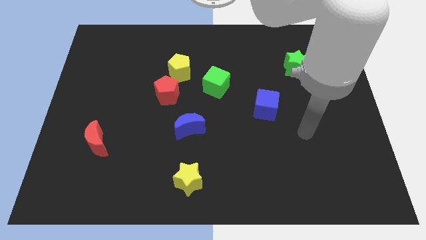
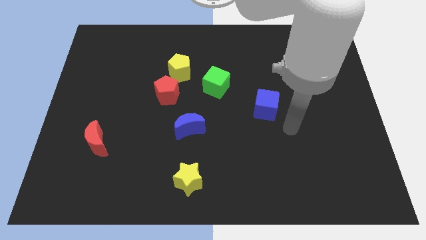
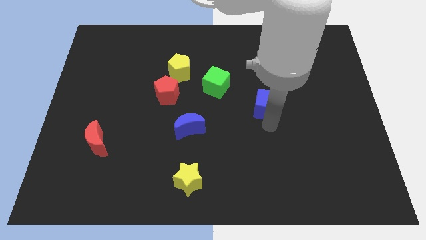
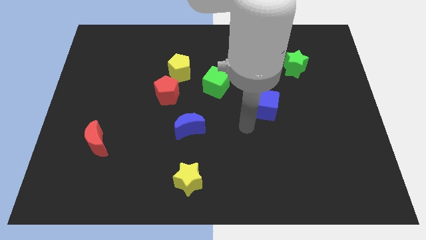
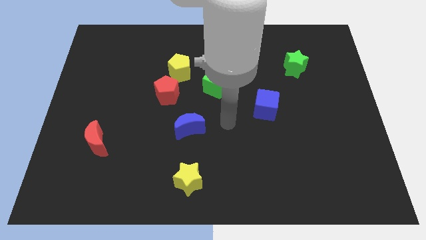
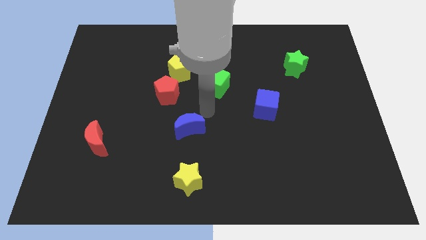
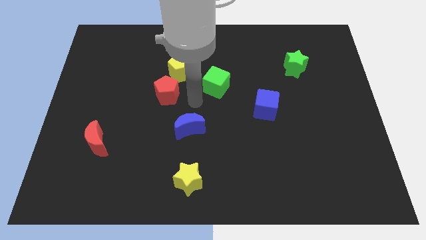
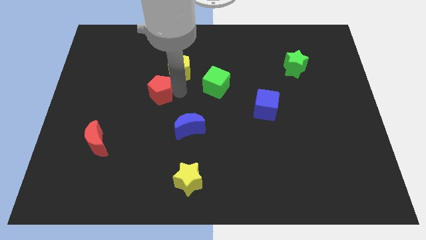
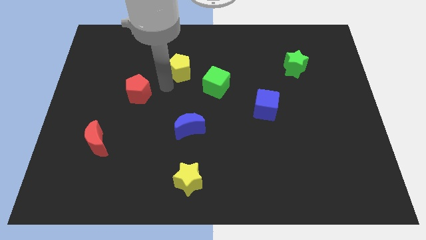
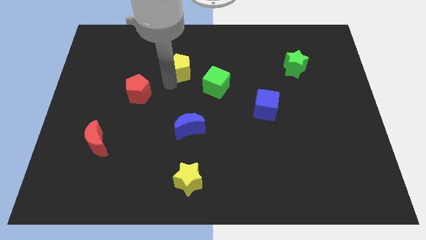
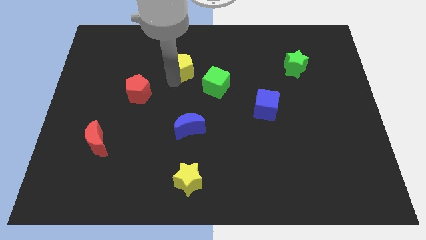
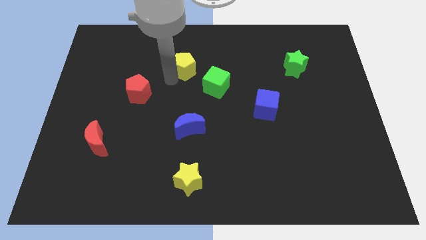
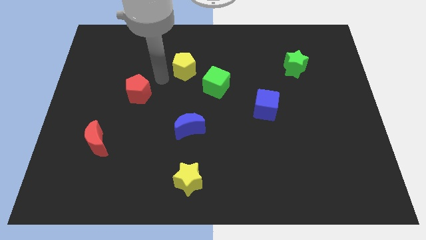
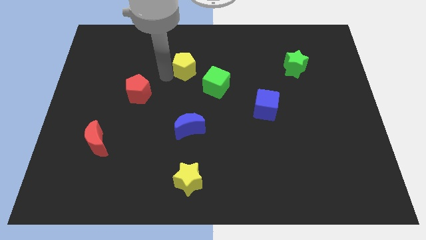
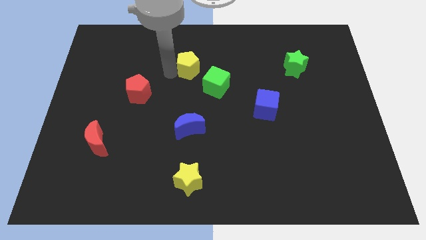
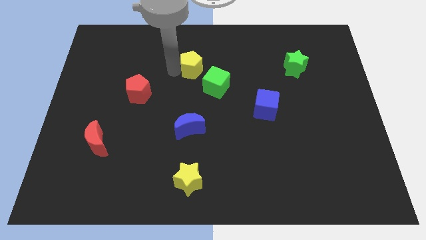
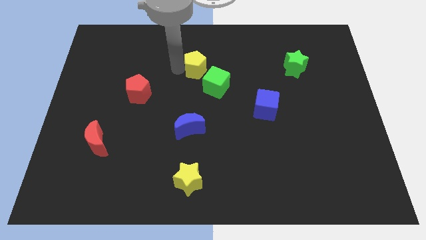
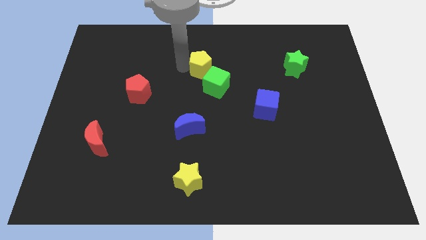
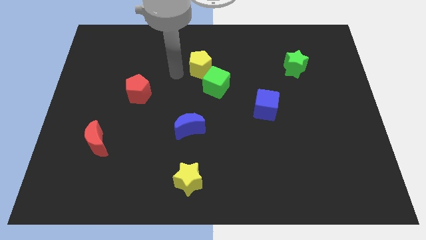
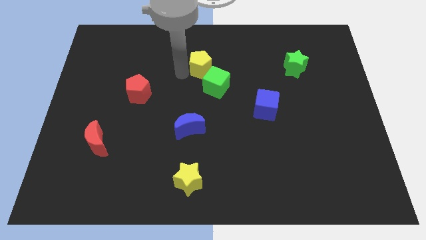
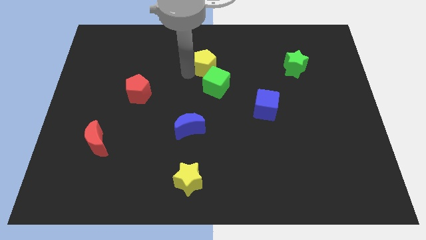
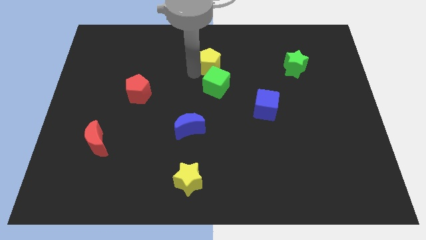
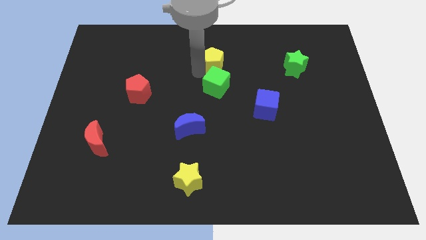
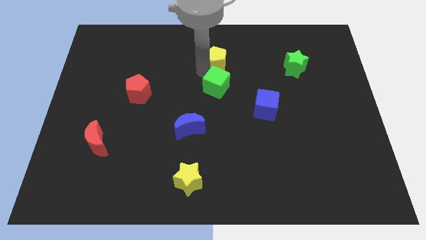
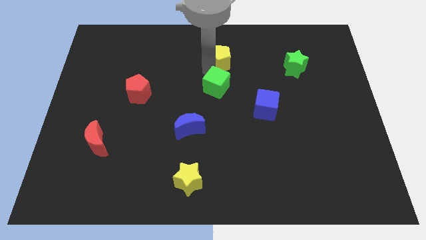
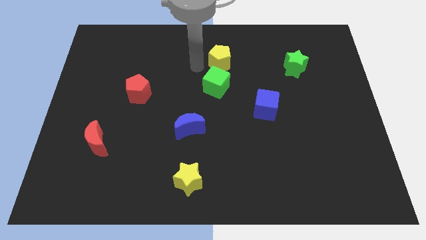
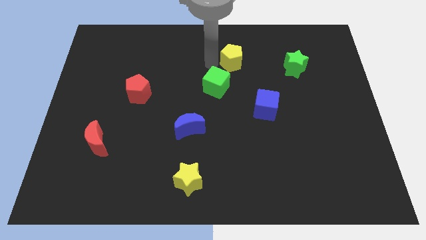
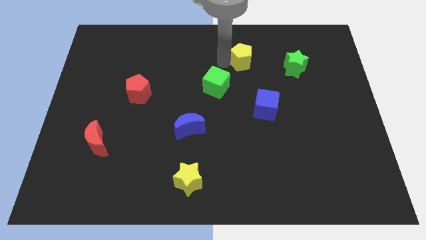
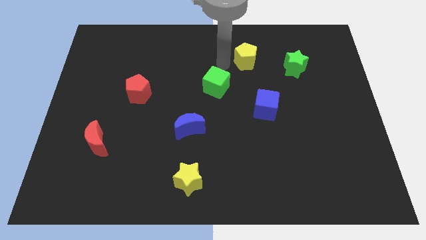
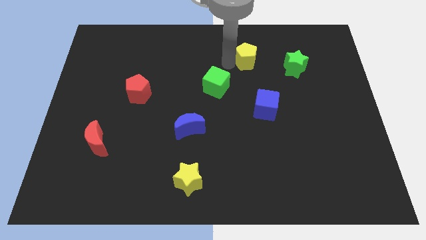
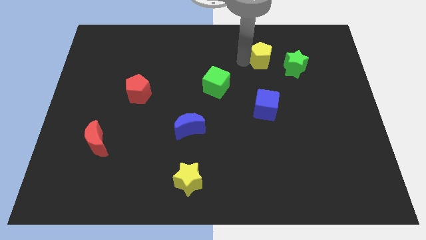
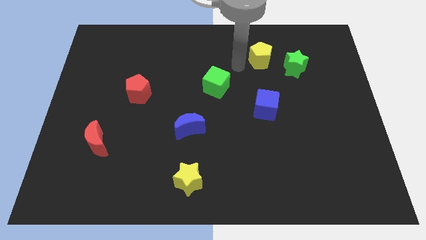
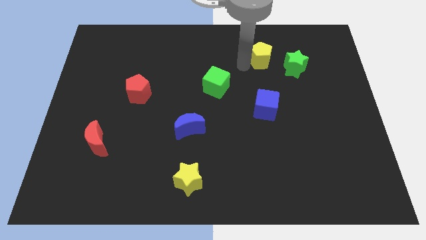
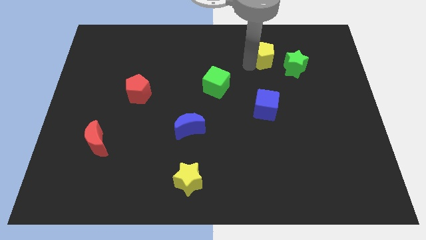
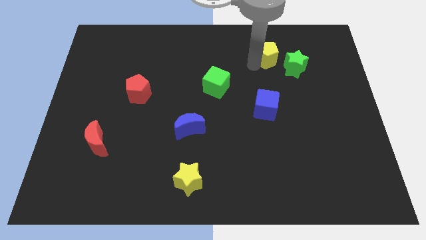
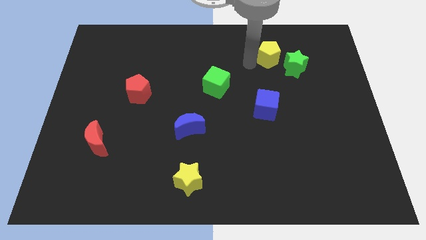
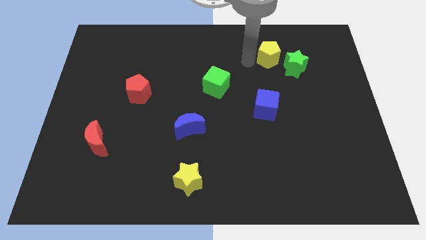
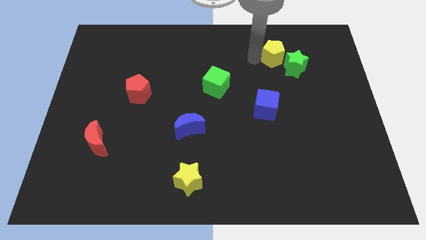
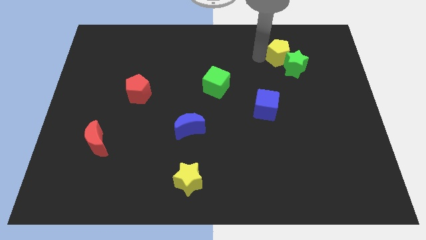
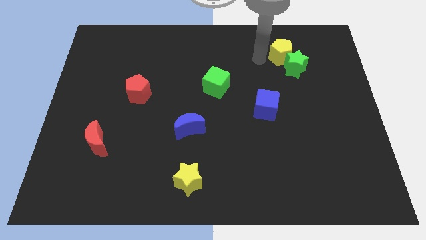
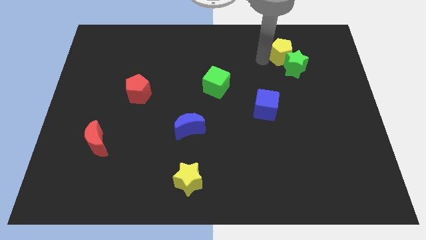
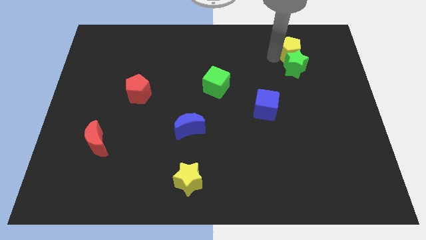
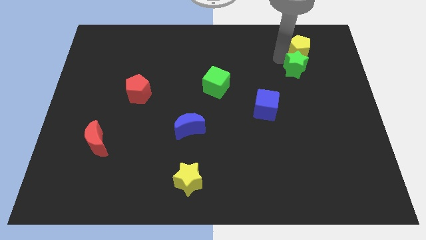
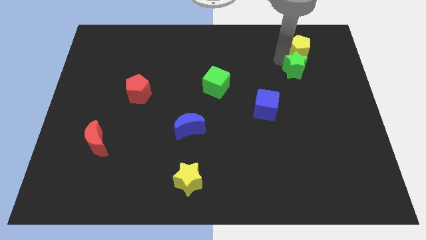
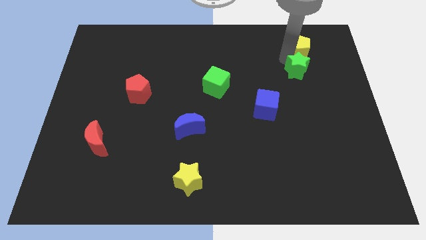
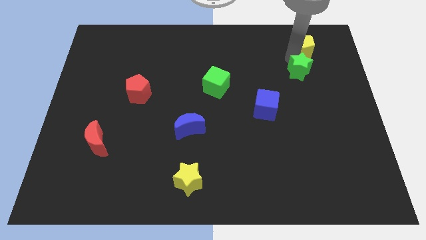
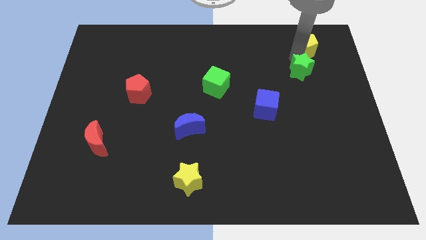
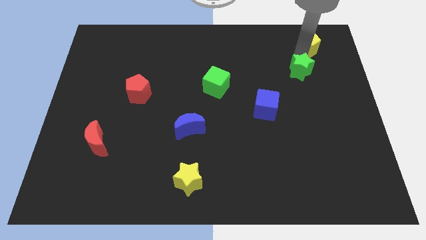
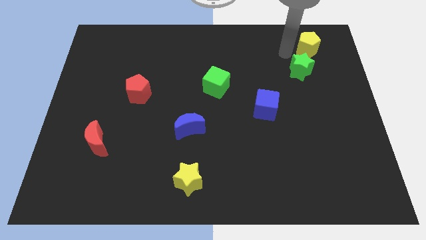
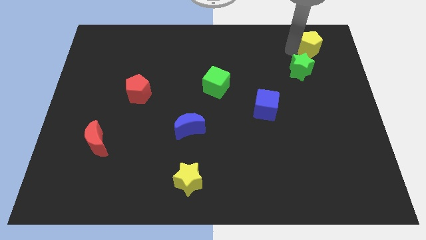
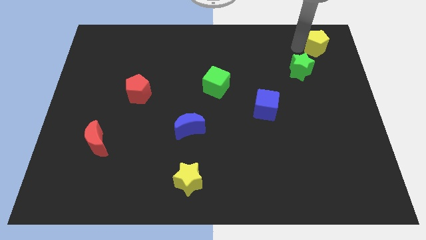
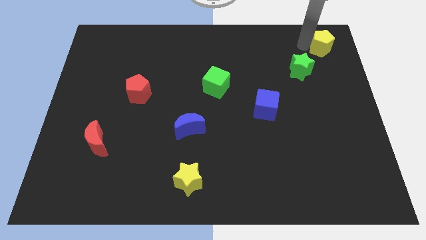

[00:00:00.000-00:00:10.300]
push the yellow pentagon to the upper right corner

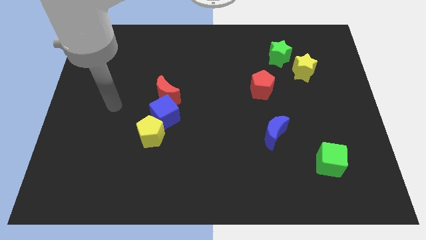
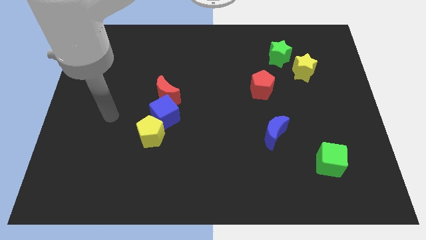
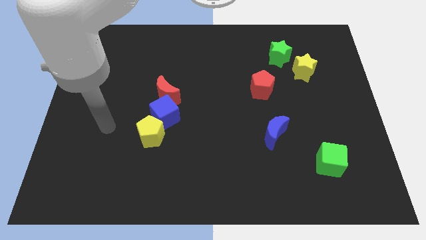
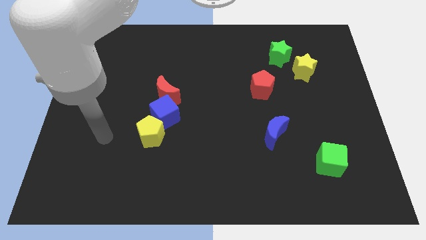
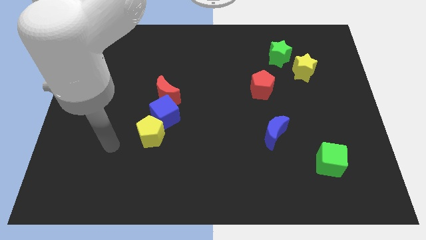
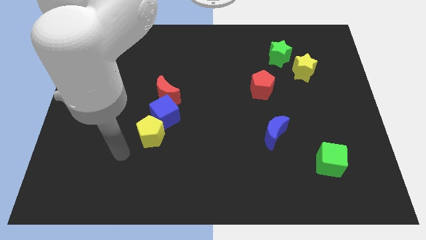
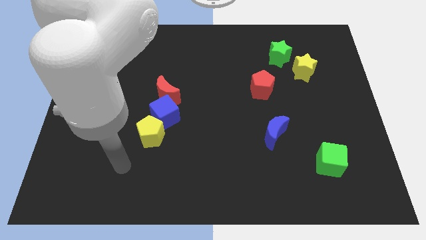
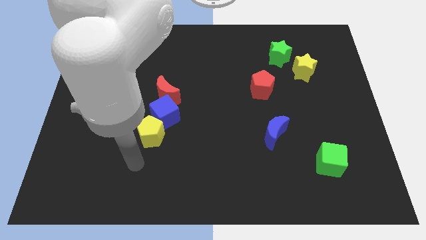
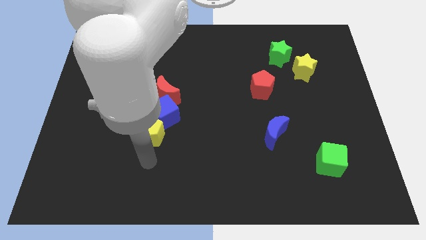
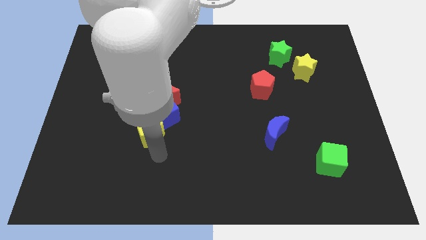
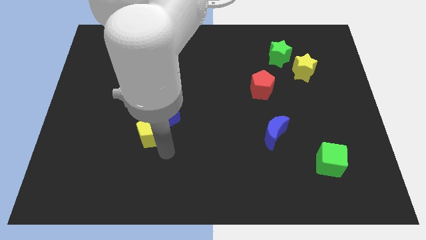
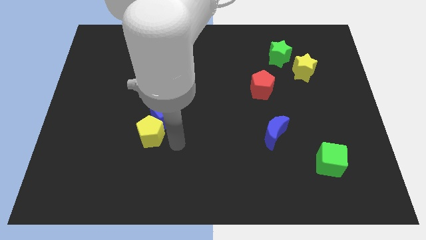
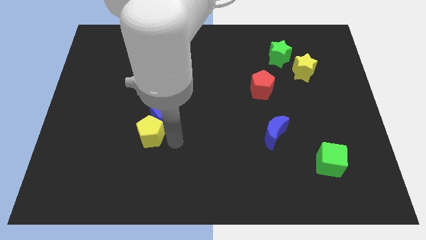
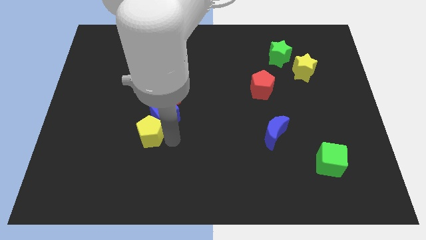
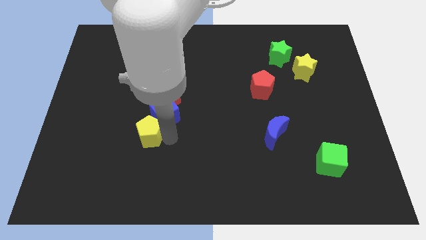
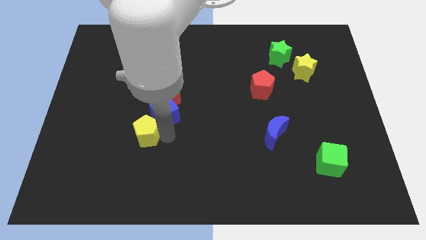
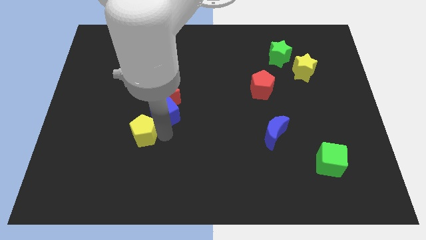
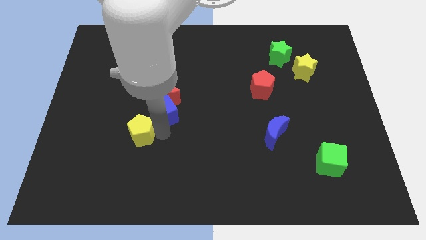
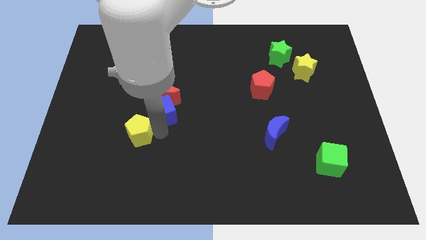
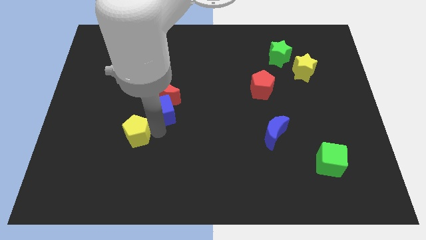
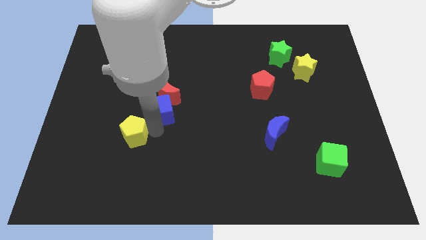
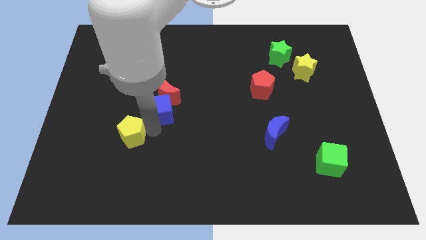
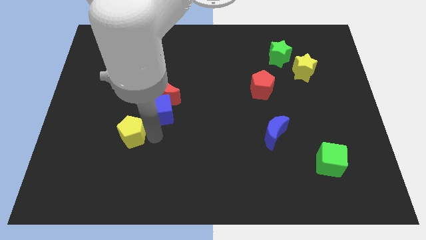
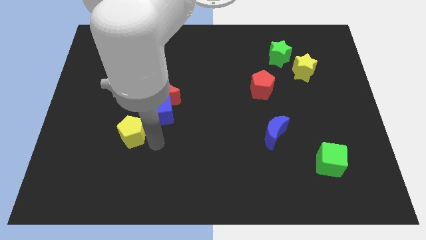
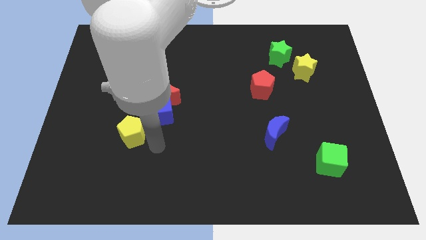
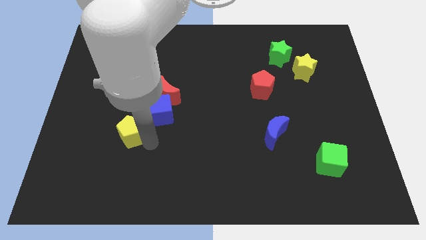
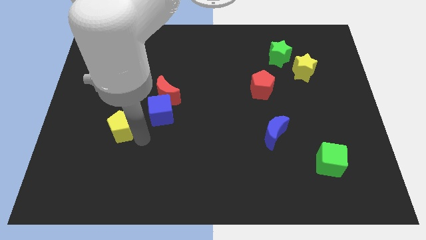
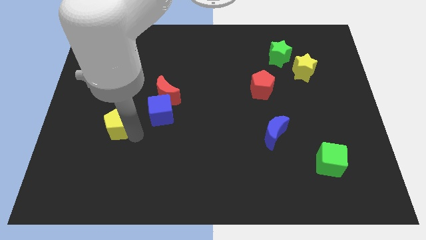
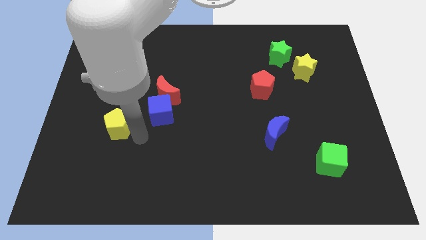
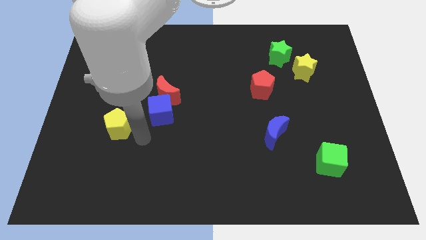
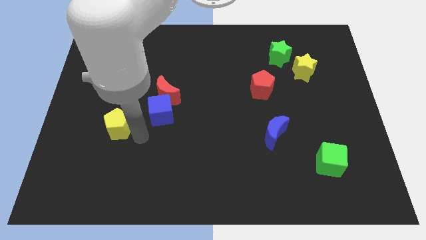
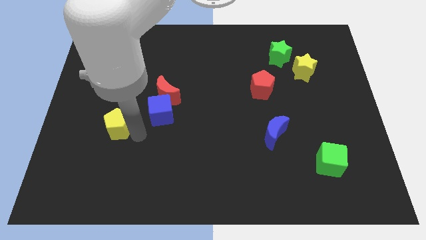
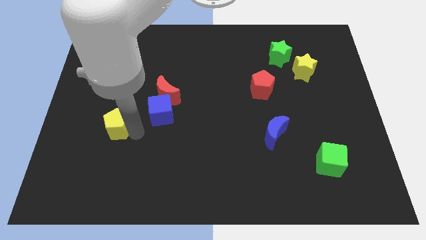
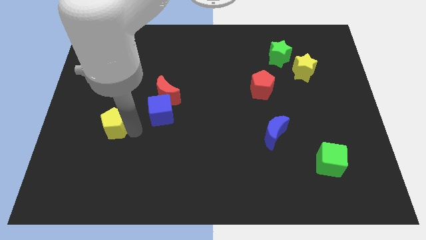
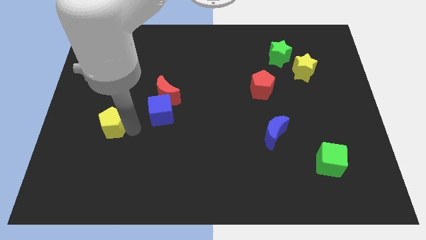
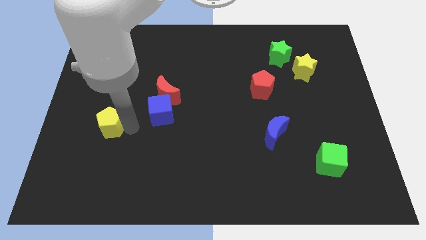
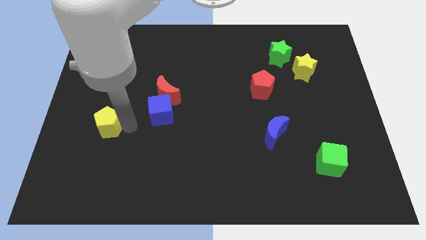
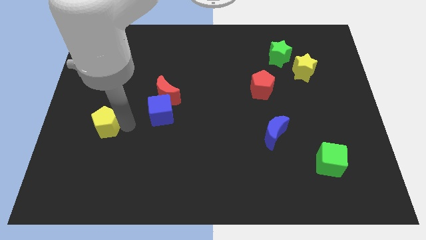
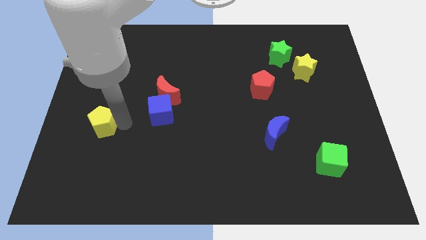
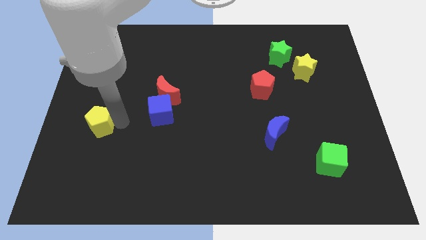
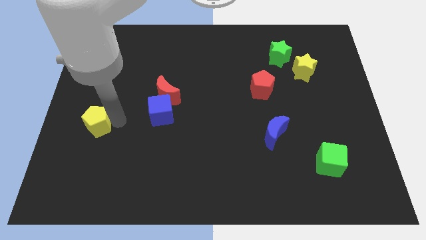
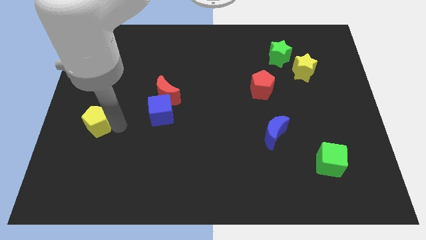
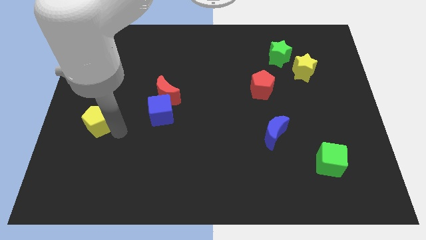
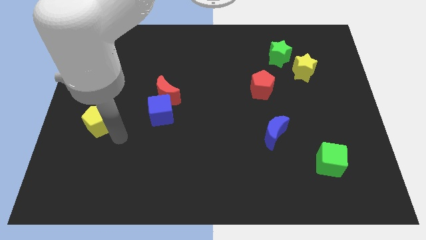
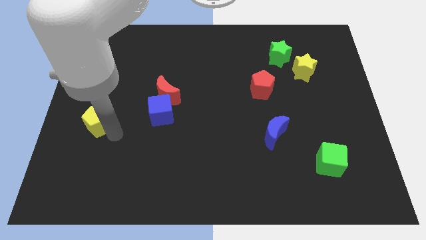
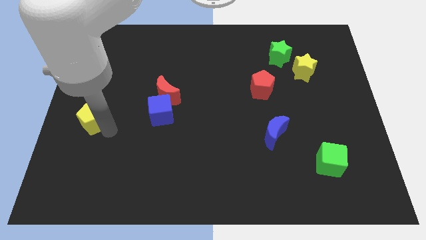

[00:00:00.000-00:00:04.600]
slide the yellow pentagon to the left side of the board
